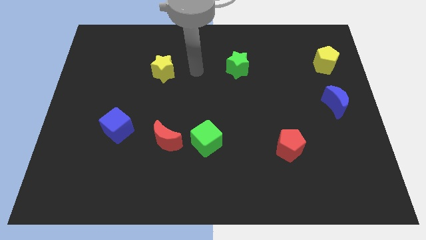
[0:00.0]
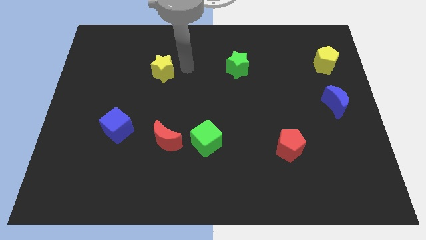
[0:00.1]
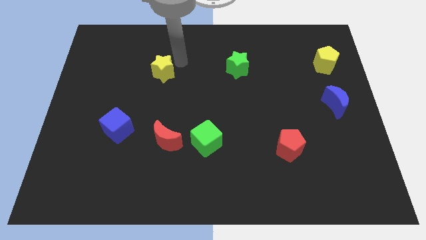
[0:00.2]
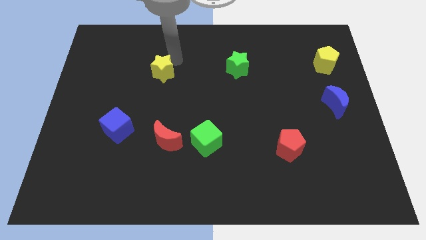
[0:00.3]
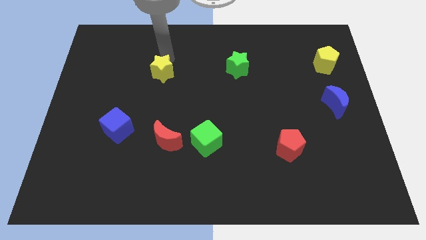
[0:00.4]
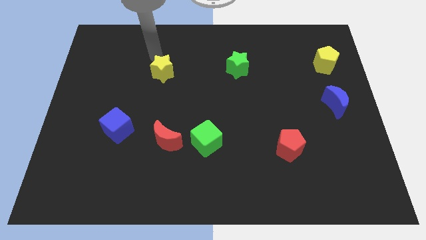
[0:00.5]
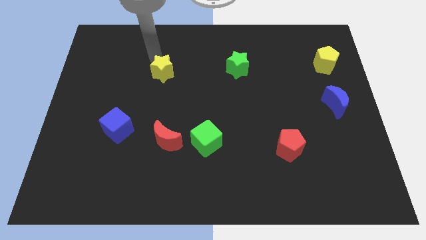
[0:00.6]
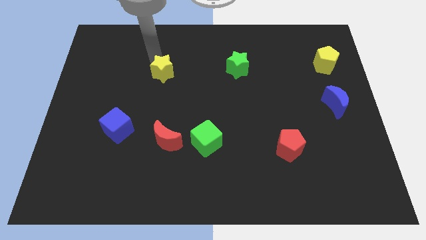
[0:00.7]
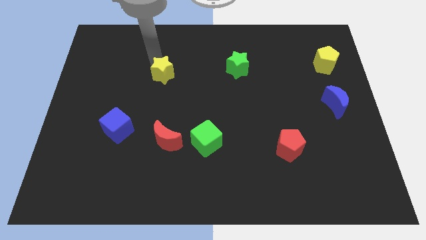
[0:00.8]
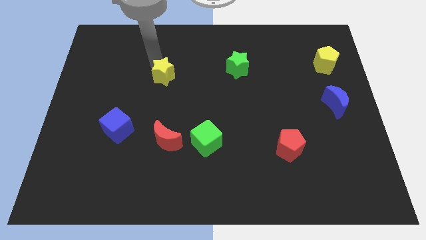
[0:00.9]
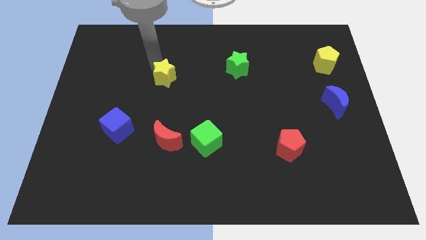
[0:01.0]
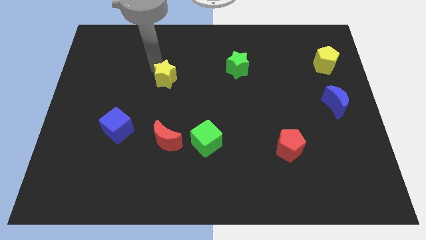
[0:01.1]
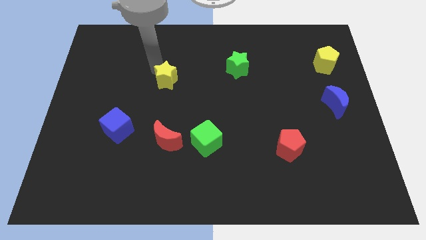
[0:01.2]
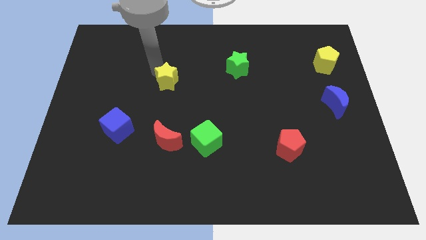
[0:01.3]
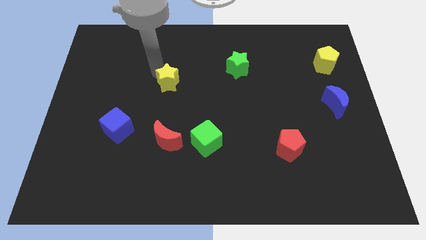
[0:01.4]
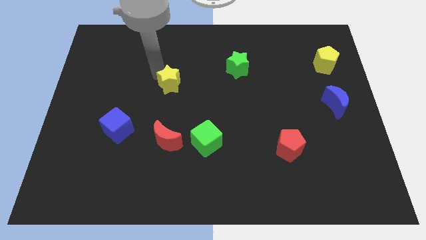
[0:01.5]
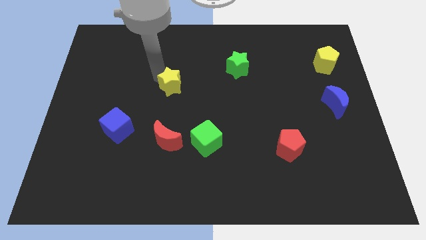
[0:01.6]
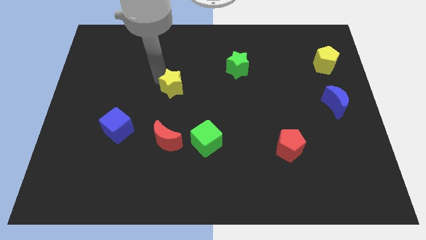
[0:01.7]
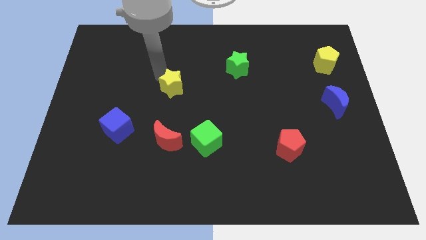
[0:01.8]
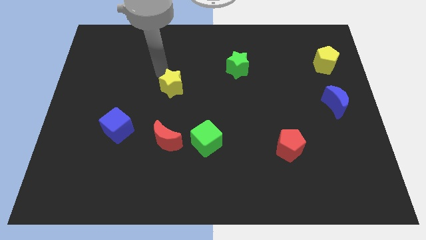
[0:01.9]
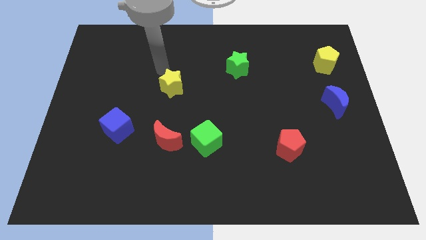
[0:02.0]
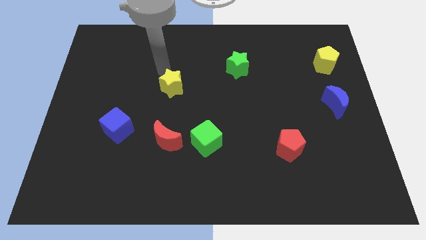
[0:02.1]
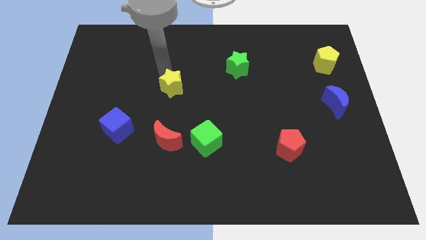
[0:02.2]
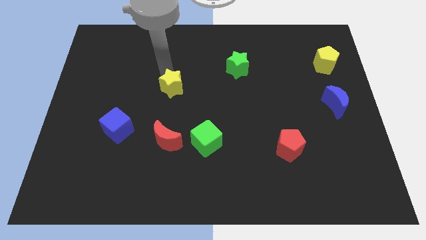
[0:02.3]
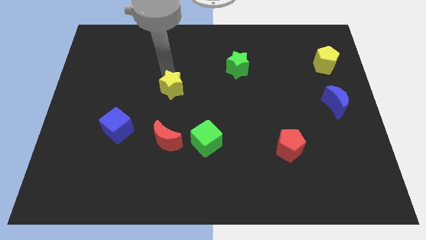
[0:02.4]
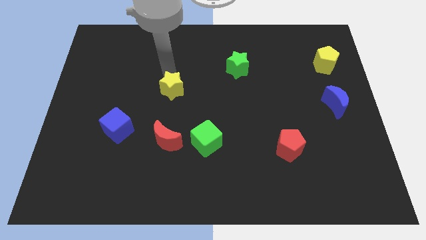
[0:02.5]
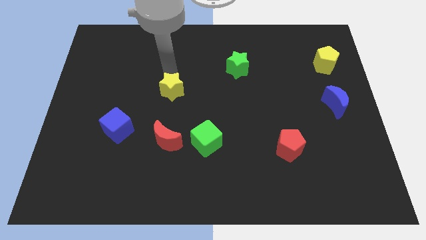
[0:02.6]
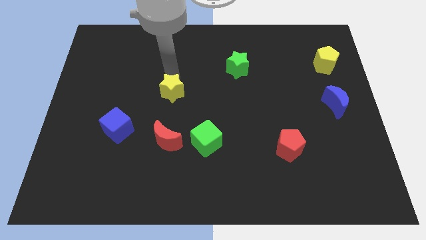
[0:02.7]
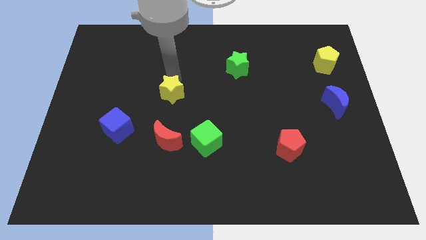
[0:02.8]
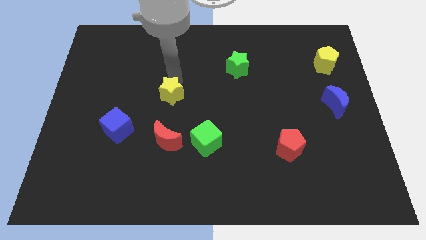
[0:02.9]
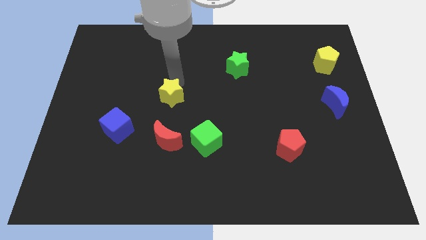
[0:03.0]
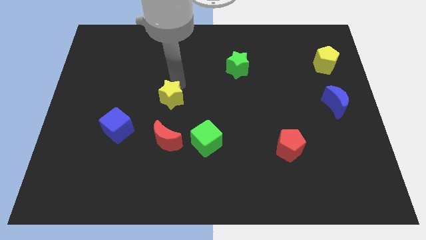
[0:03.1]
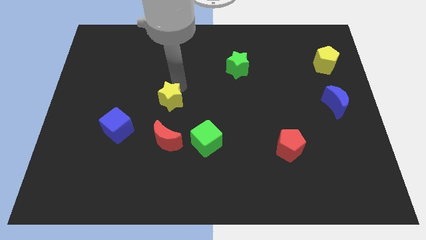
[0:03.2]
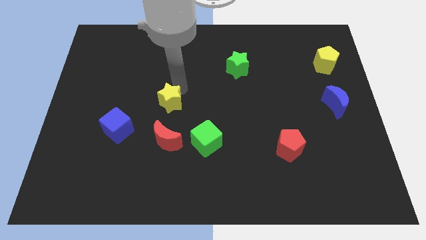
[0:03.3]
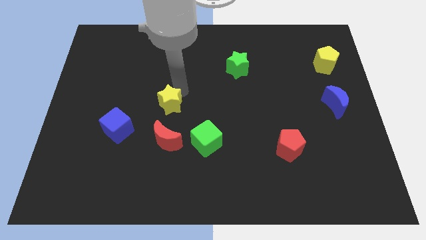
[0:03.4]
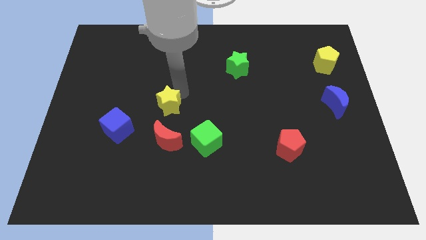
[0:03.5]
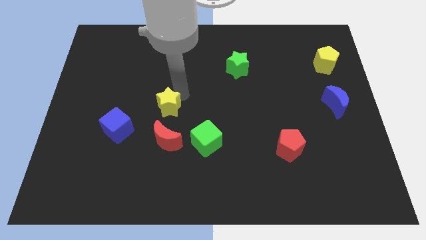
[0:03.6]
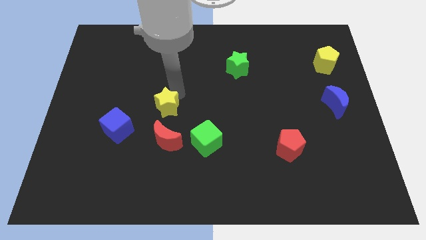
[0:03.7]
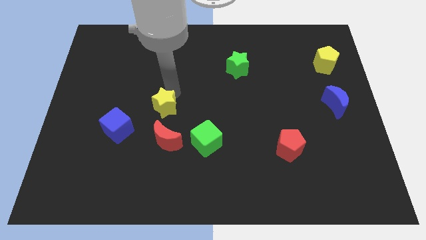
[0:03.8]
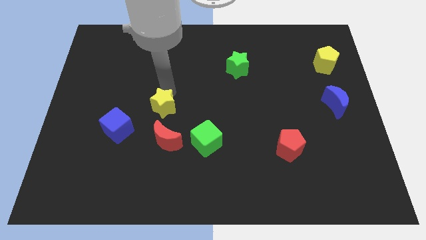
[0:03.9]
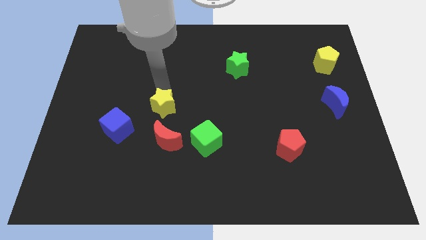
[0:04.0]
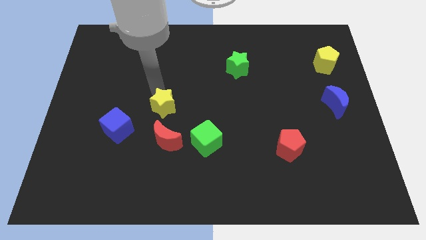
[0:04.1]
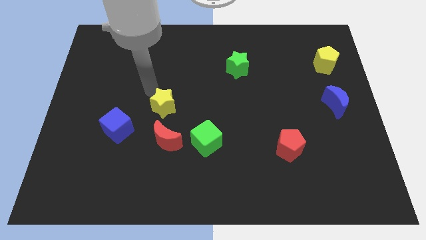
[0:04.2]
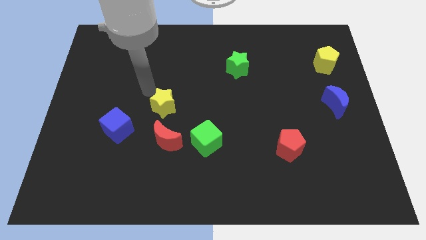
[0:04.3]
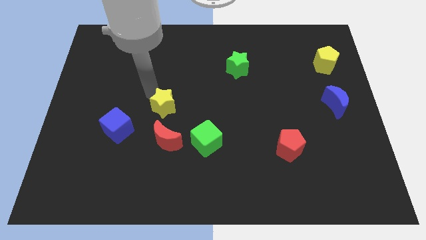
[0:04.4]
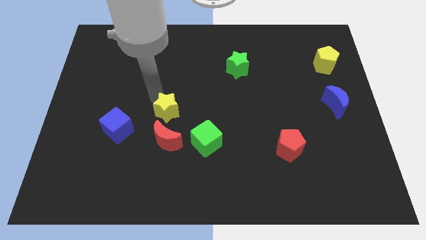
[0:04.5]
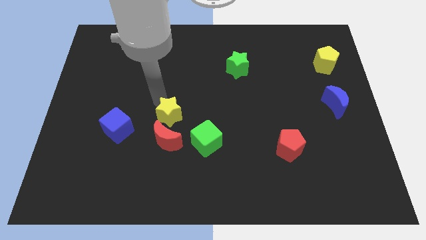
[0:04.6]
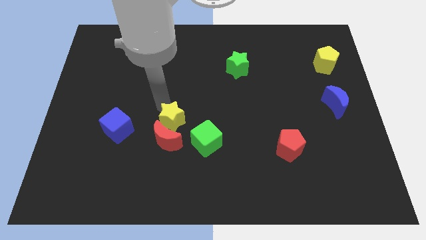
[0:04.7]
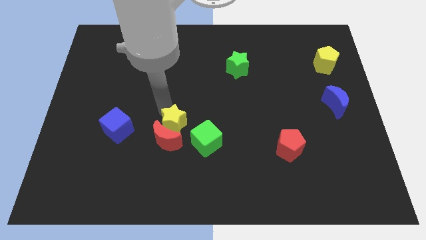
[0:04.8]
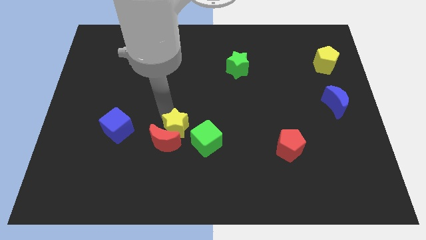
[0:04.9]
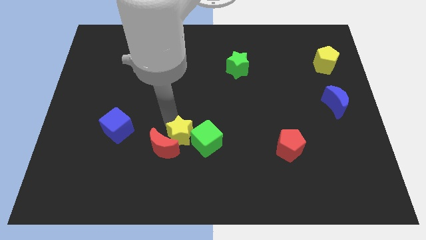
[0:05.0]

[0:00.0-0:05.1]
put the yellow star next to the green cube

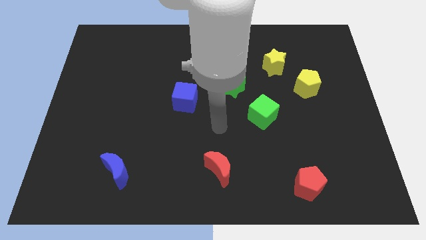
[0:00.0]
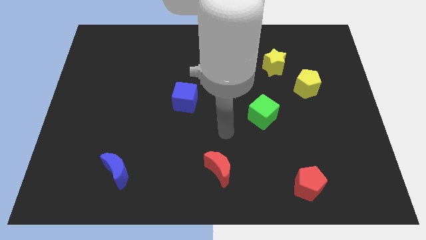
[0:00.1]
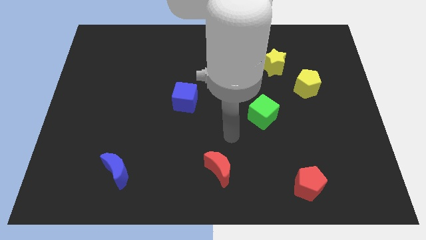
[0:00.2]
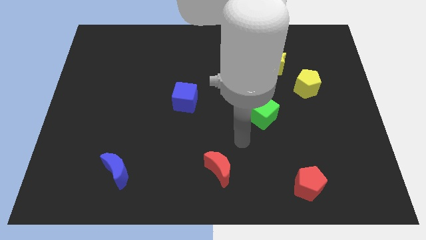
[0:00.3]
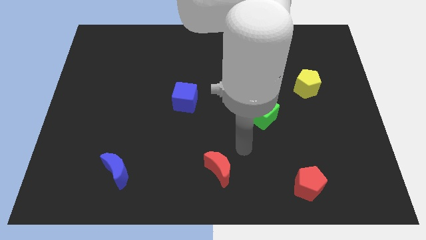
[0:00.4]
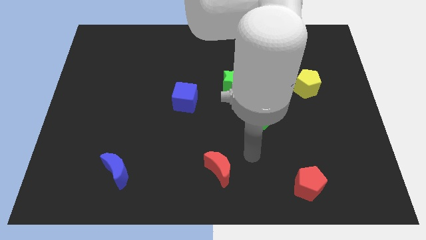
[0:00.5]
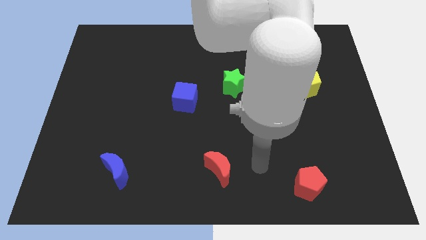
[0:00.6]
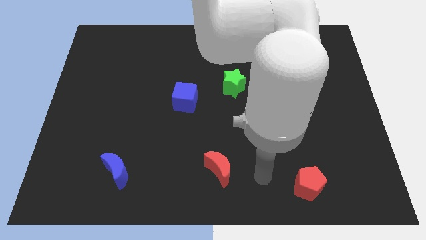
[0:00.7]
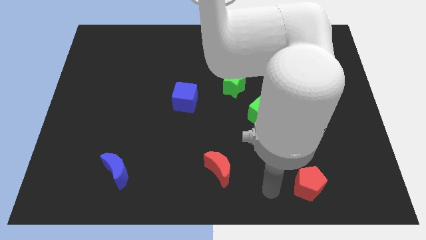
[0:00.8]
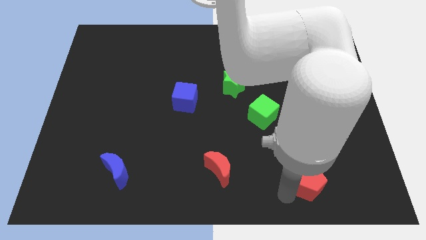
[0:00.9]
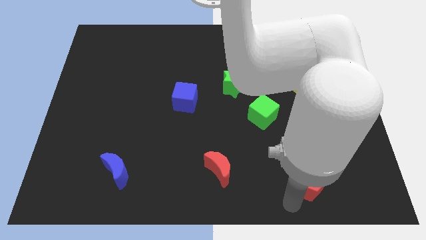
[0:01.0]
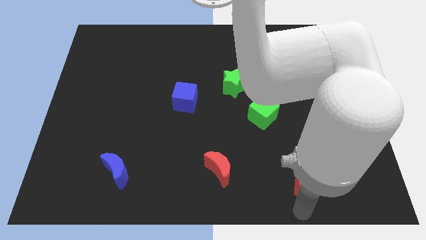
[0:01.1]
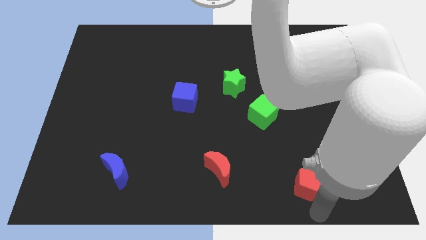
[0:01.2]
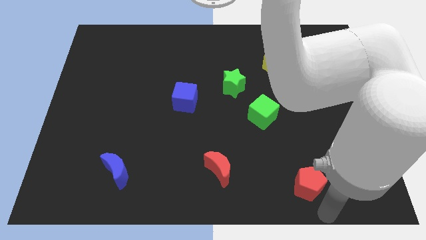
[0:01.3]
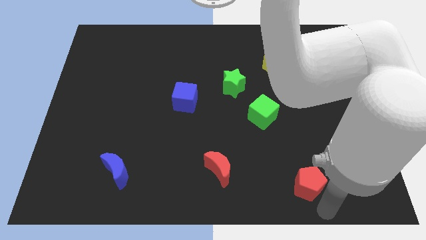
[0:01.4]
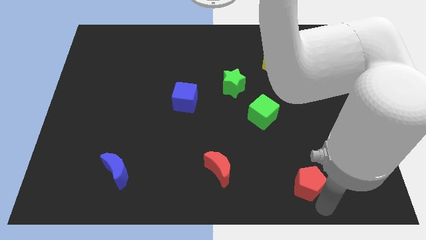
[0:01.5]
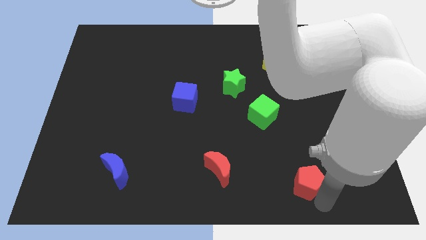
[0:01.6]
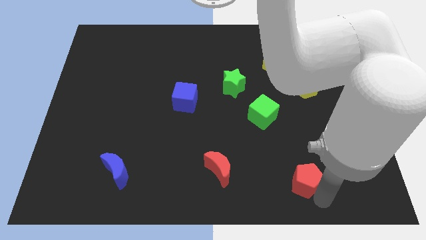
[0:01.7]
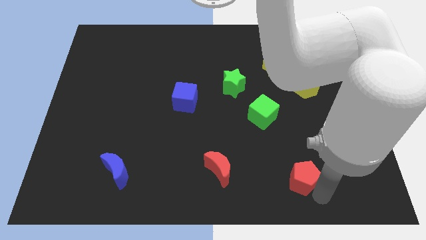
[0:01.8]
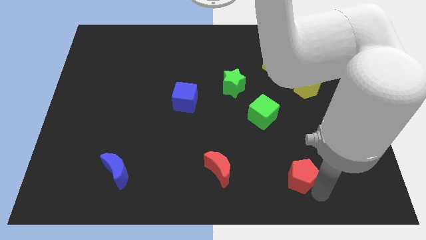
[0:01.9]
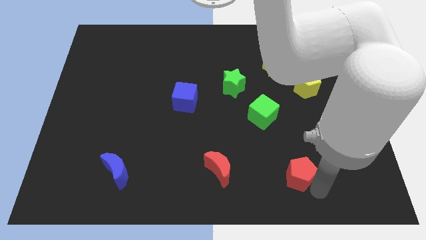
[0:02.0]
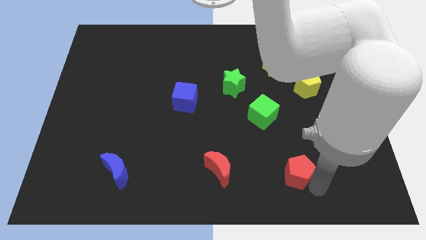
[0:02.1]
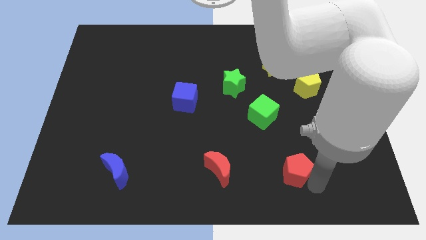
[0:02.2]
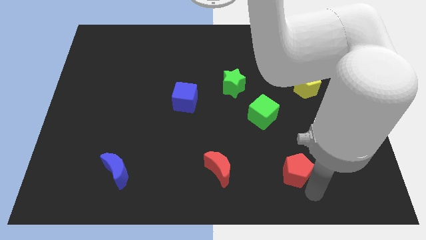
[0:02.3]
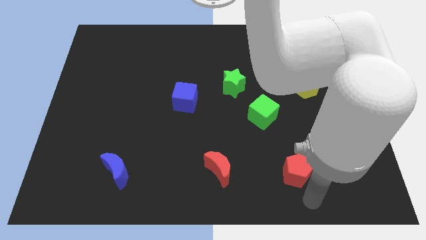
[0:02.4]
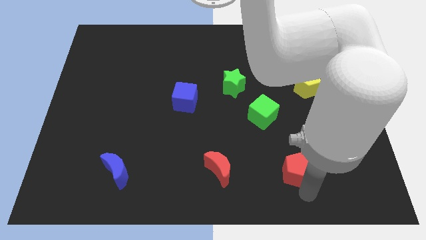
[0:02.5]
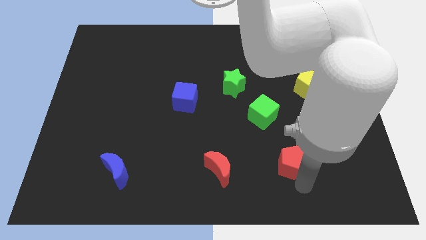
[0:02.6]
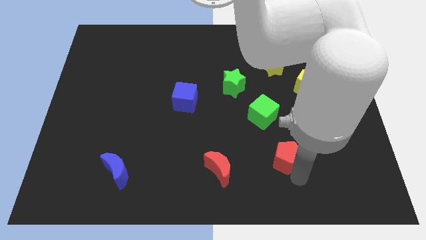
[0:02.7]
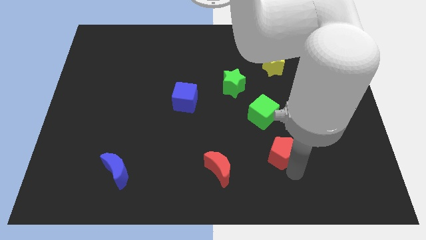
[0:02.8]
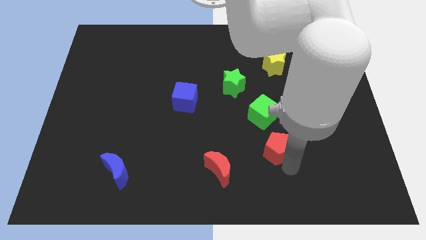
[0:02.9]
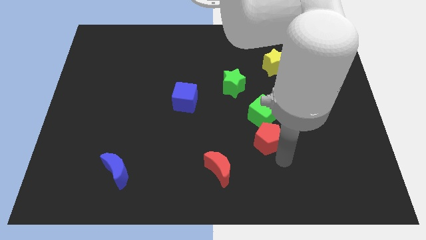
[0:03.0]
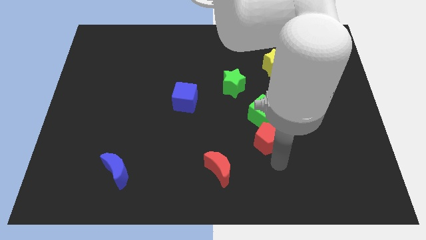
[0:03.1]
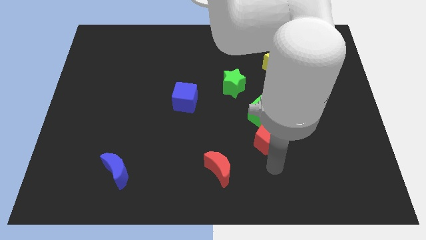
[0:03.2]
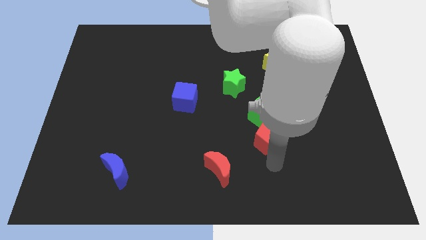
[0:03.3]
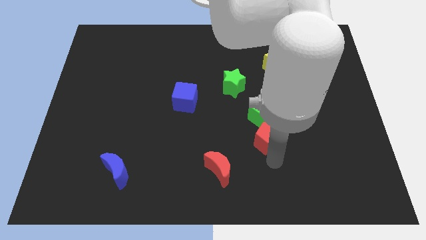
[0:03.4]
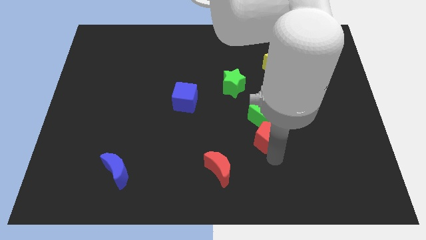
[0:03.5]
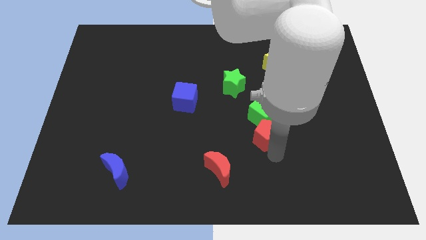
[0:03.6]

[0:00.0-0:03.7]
move the red pentagon to the green cube
